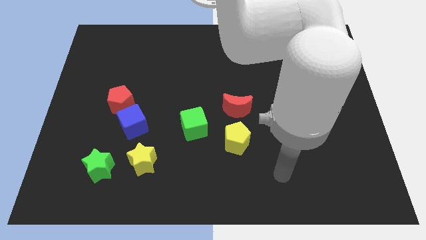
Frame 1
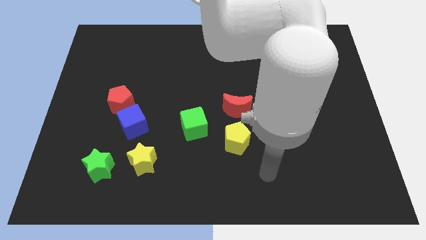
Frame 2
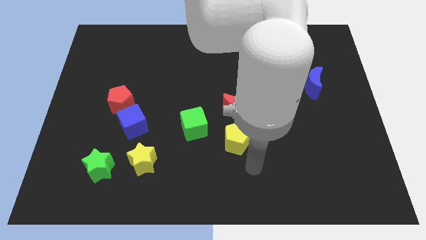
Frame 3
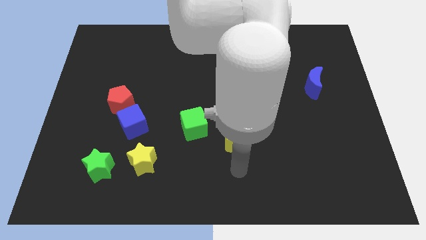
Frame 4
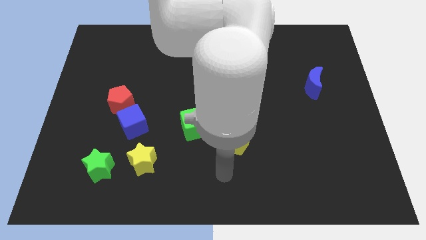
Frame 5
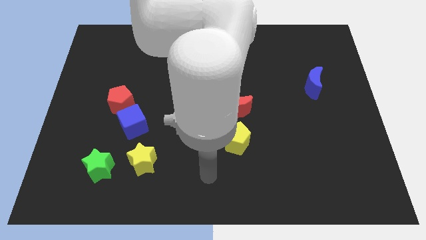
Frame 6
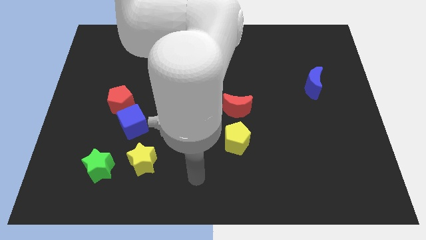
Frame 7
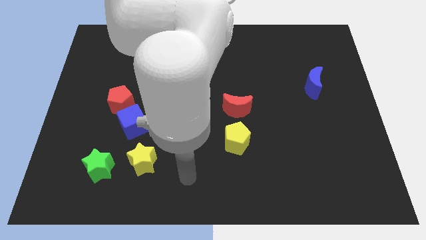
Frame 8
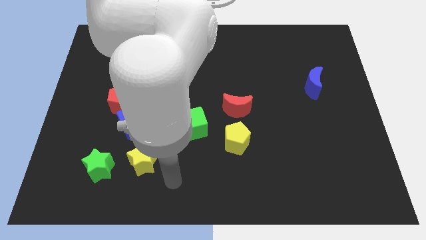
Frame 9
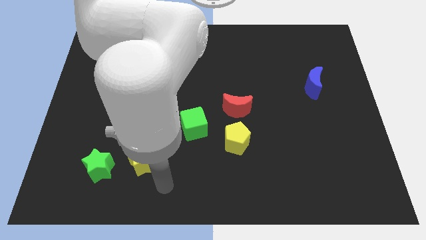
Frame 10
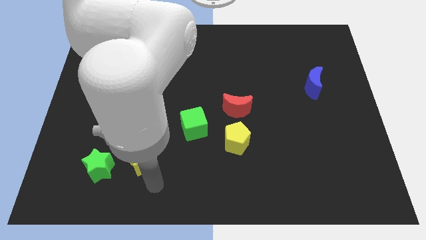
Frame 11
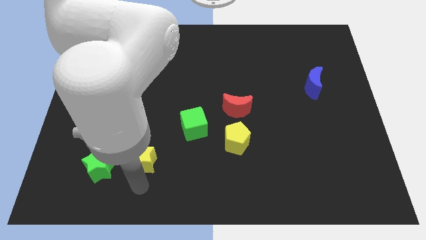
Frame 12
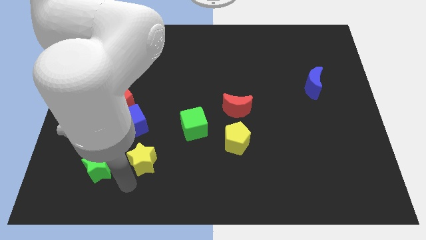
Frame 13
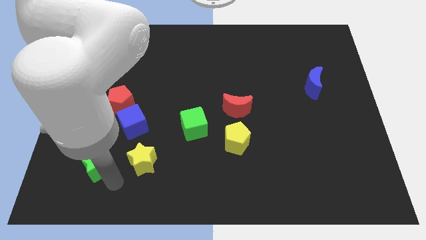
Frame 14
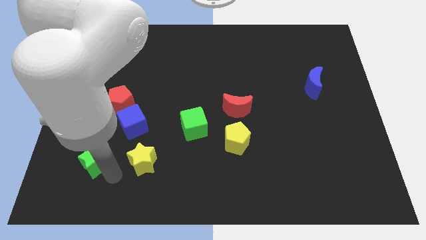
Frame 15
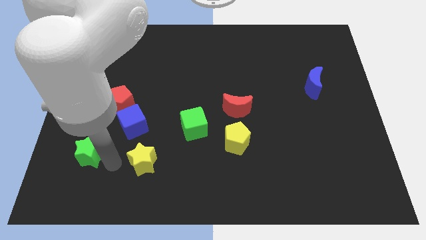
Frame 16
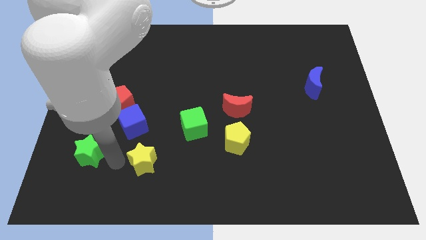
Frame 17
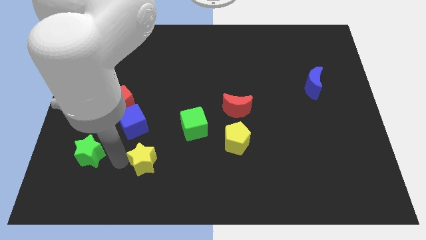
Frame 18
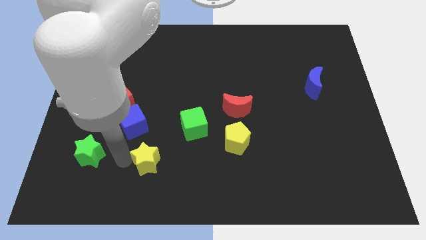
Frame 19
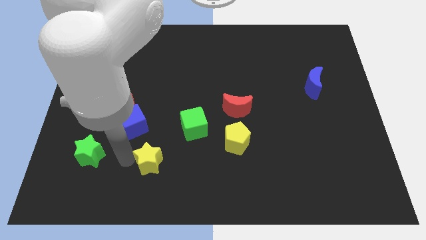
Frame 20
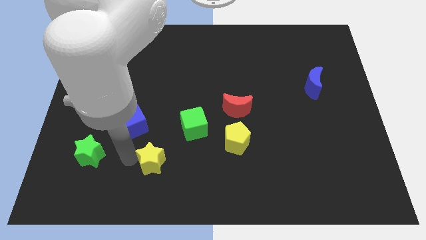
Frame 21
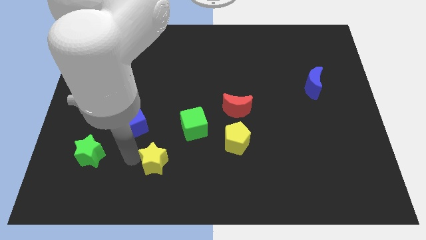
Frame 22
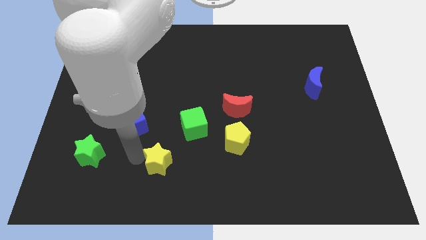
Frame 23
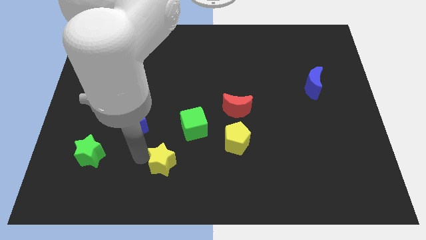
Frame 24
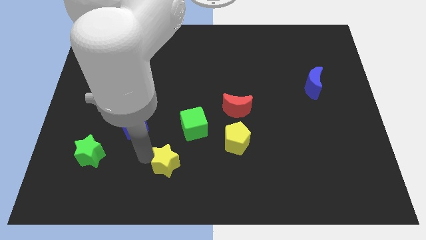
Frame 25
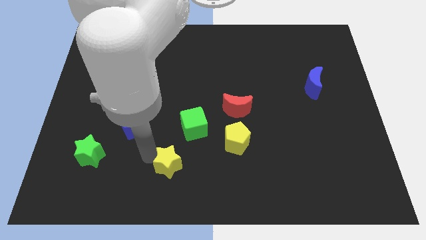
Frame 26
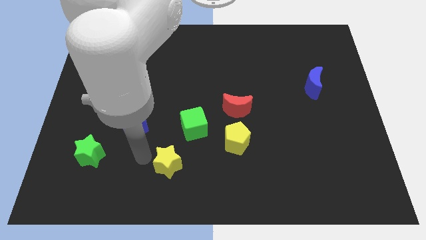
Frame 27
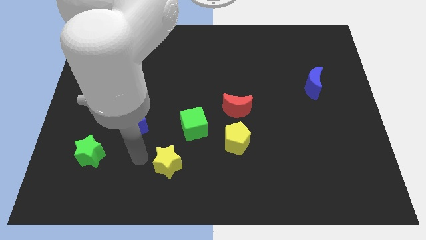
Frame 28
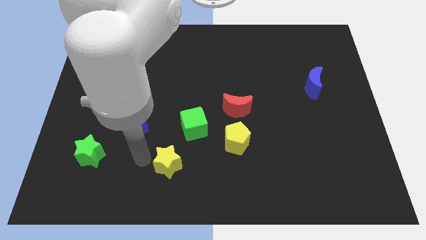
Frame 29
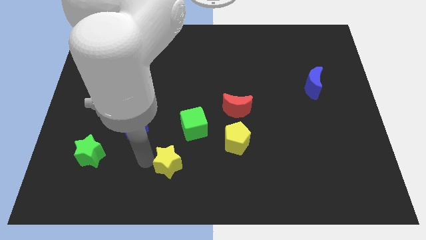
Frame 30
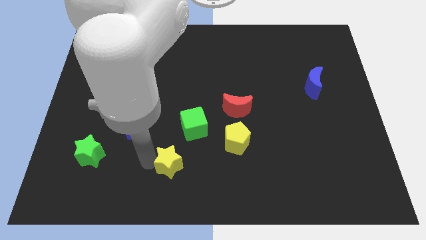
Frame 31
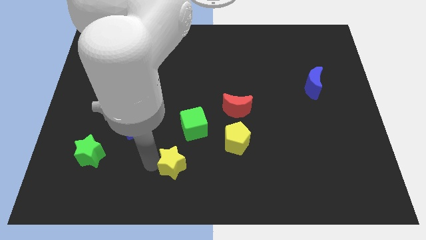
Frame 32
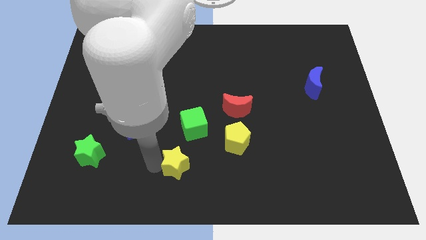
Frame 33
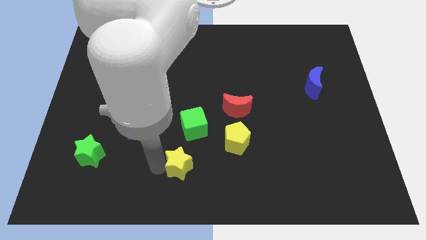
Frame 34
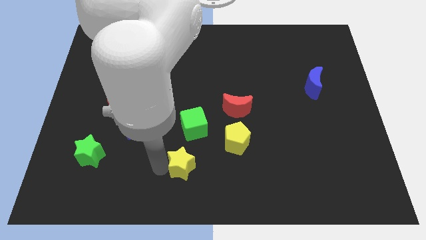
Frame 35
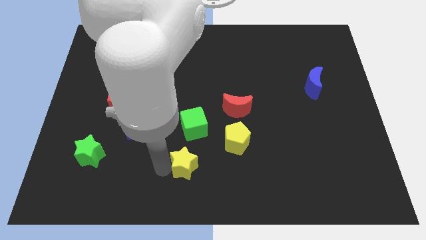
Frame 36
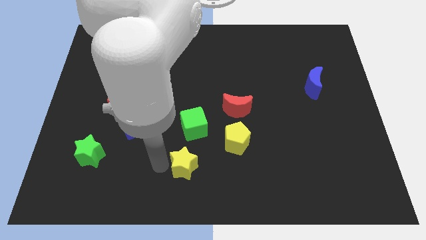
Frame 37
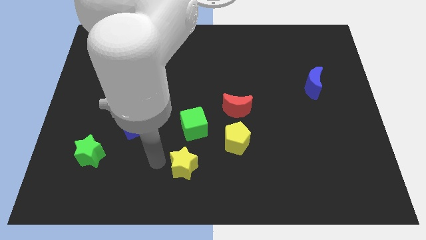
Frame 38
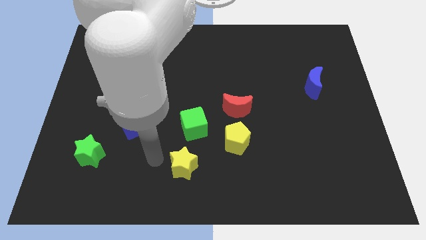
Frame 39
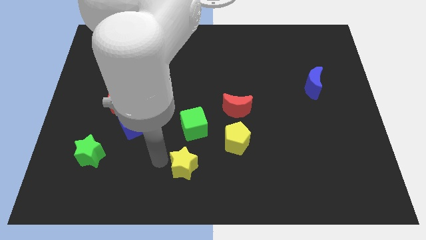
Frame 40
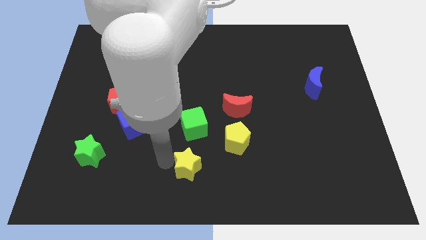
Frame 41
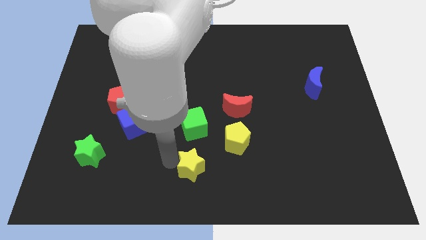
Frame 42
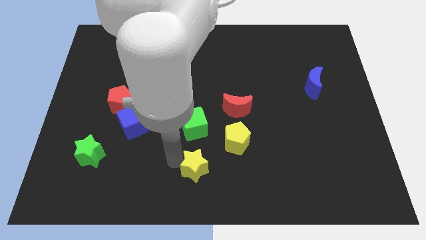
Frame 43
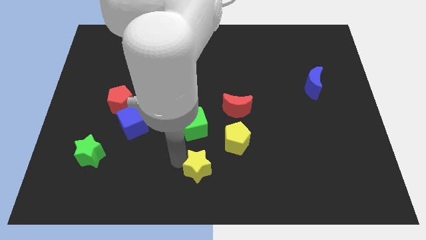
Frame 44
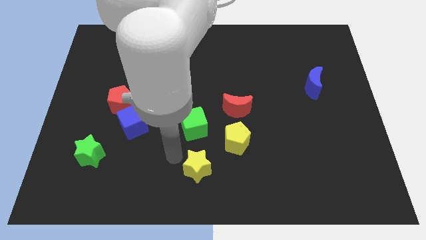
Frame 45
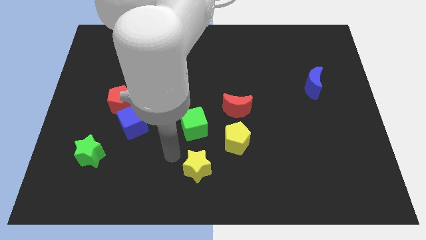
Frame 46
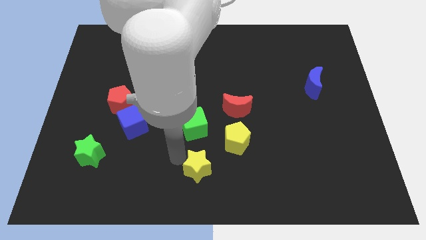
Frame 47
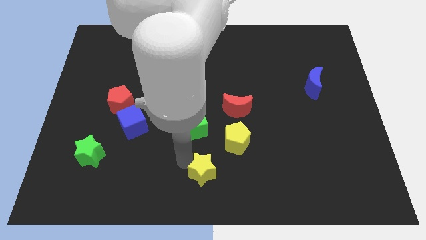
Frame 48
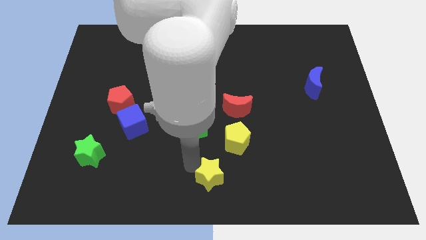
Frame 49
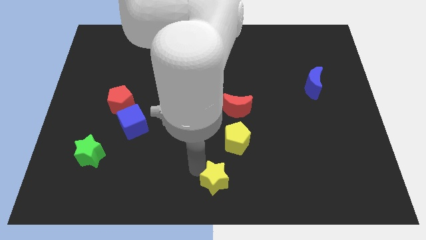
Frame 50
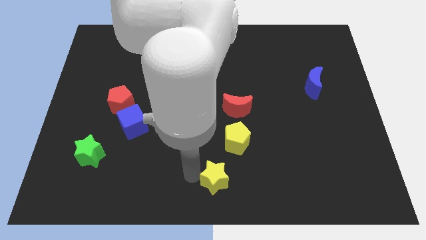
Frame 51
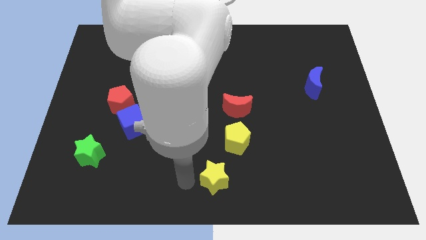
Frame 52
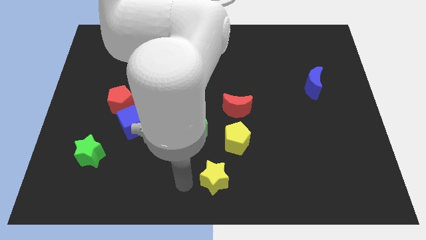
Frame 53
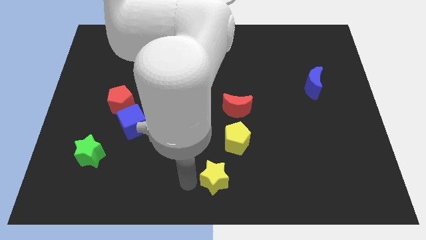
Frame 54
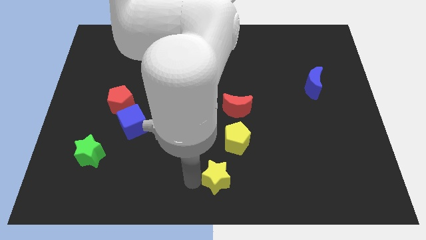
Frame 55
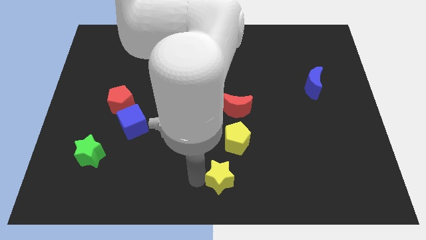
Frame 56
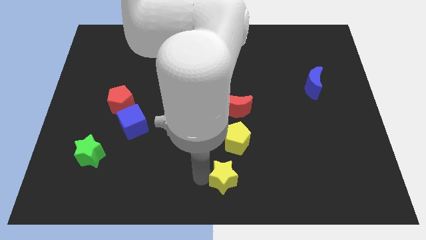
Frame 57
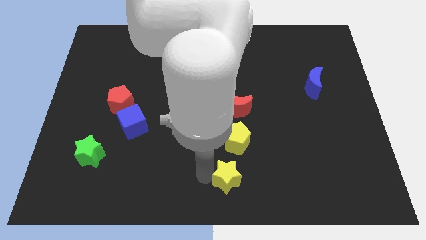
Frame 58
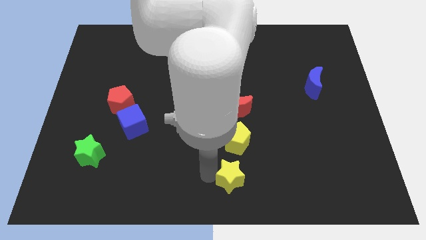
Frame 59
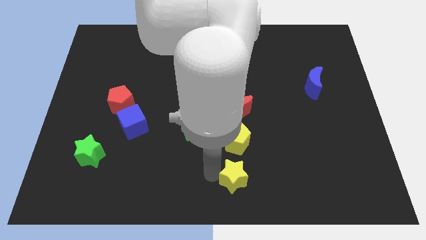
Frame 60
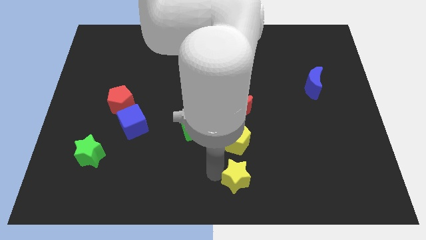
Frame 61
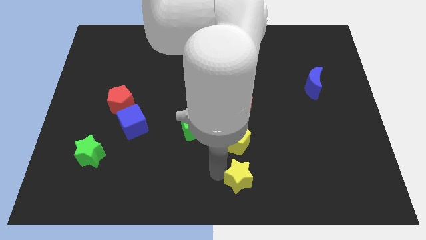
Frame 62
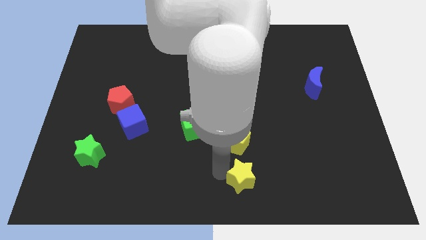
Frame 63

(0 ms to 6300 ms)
slide the yellow star to the right

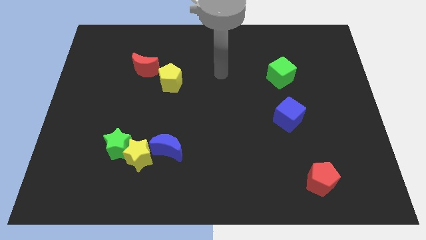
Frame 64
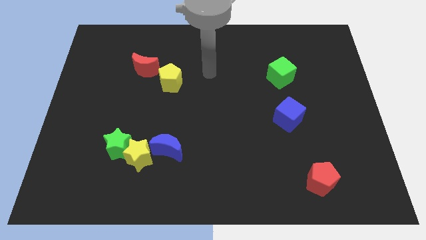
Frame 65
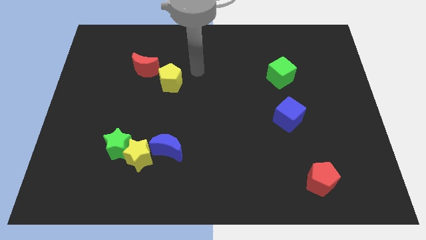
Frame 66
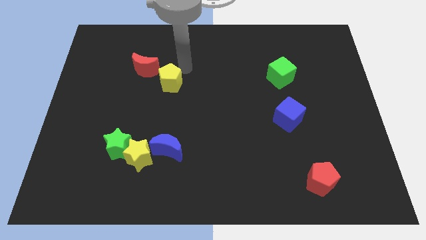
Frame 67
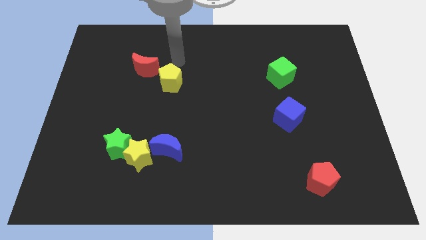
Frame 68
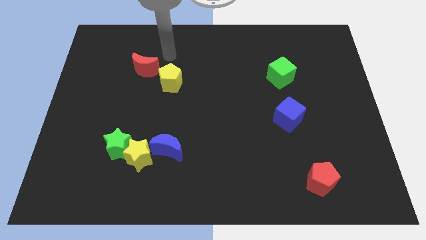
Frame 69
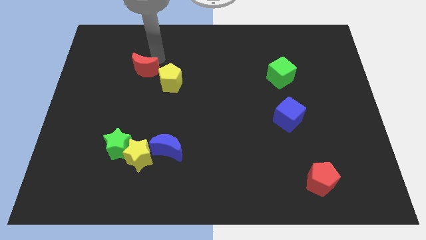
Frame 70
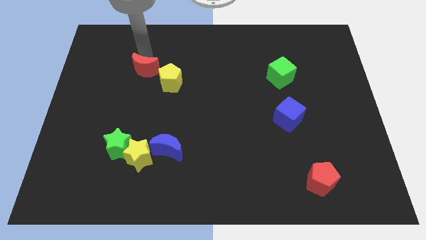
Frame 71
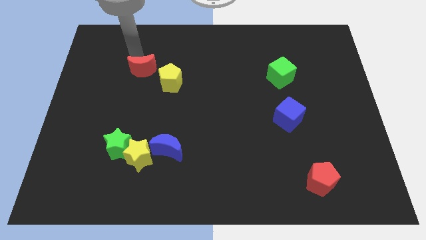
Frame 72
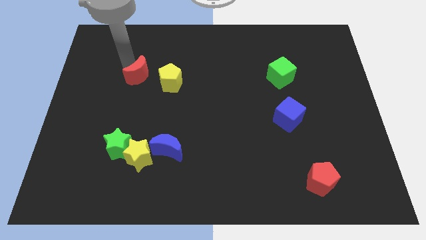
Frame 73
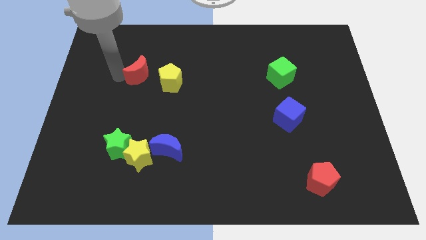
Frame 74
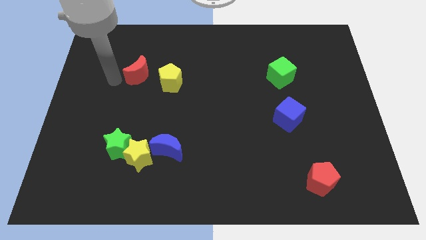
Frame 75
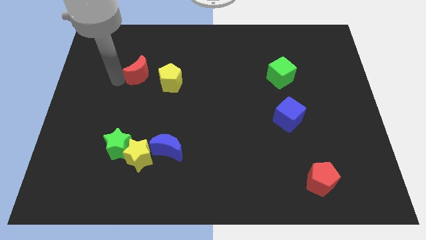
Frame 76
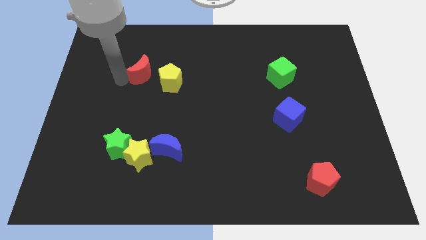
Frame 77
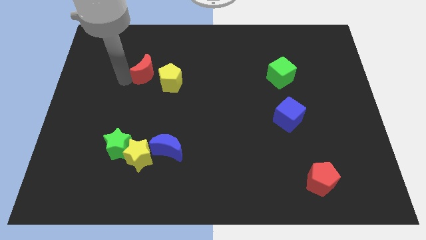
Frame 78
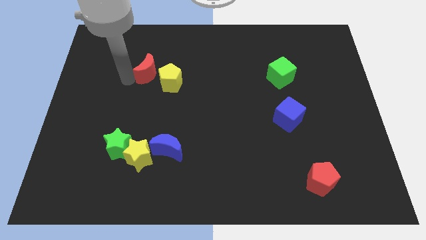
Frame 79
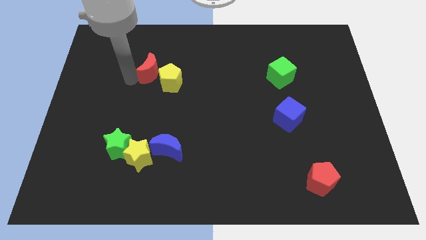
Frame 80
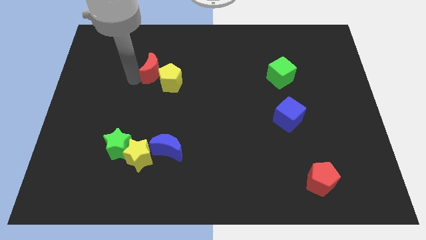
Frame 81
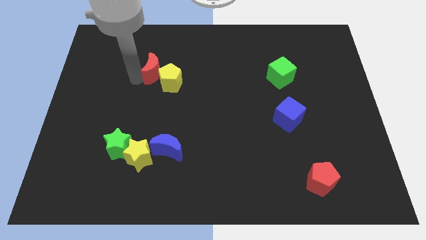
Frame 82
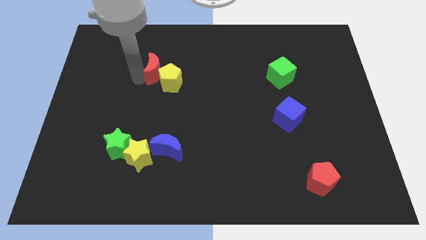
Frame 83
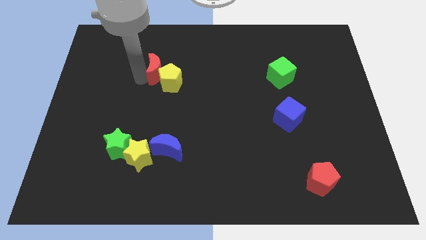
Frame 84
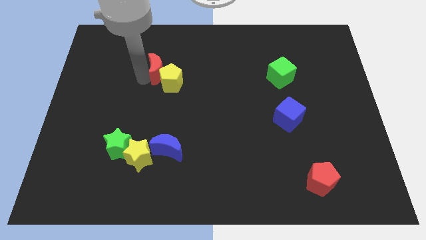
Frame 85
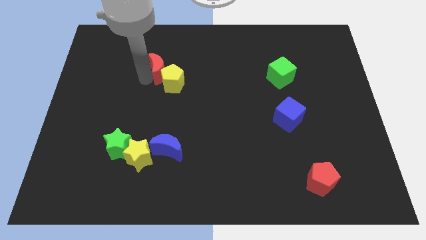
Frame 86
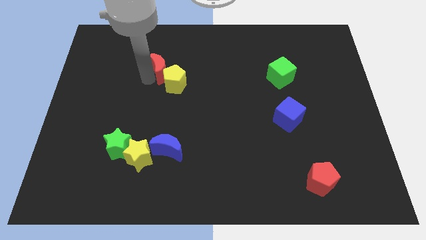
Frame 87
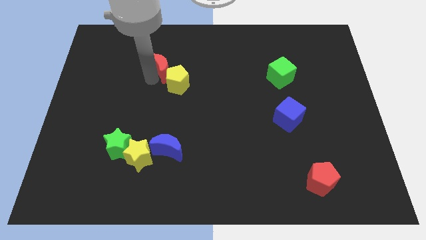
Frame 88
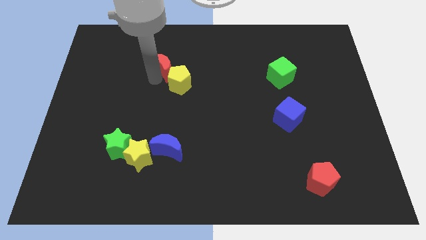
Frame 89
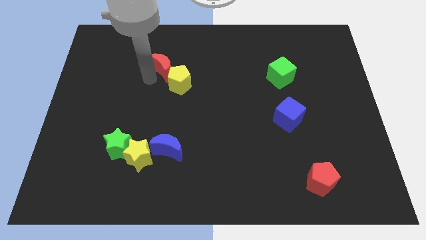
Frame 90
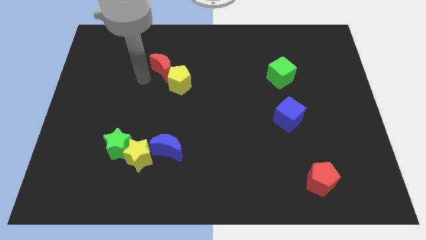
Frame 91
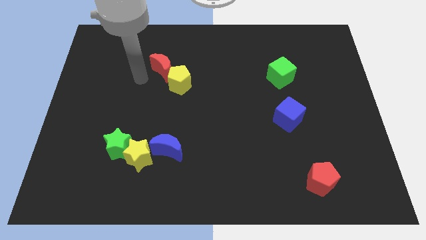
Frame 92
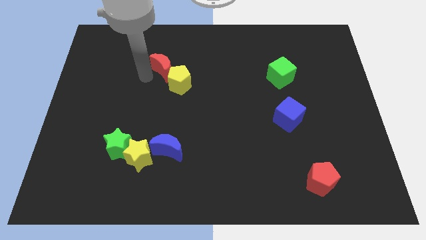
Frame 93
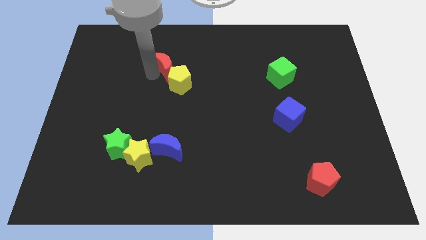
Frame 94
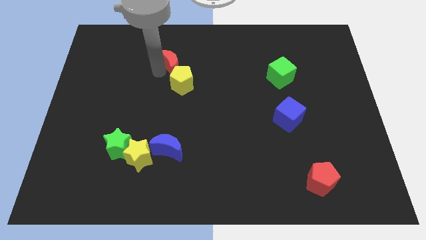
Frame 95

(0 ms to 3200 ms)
push the red moon slightly to the right
